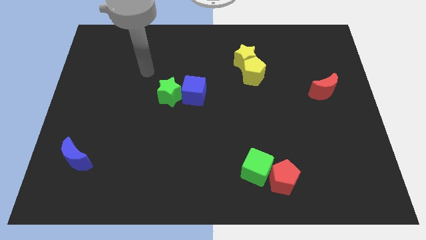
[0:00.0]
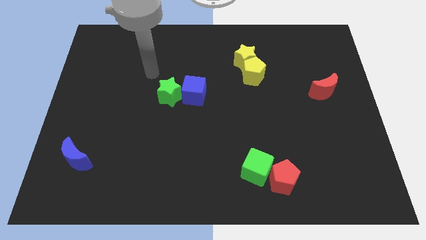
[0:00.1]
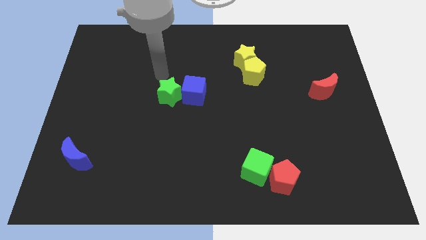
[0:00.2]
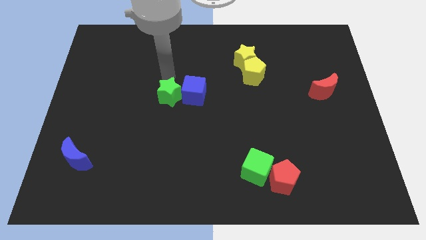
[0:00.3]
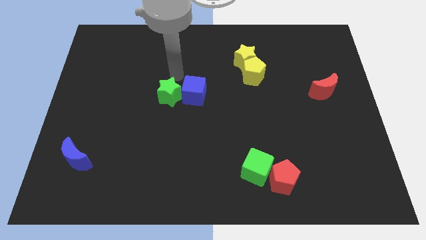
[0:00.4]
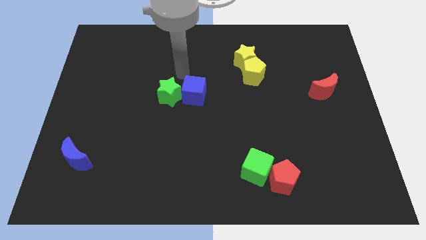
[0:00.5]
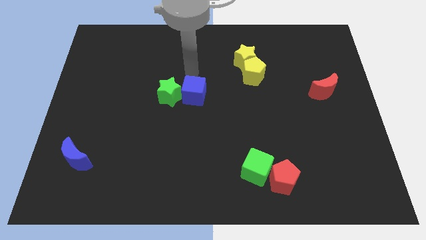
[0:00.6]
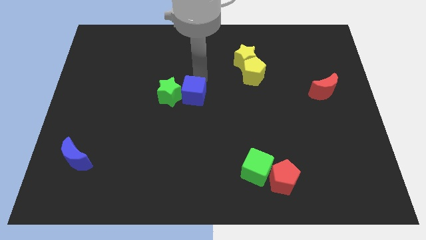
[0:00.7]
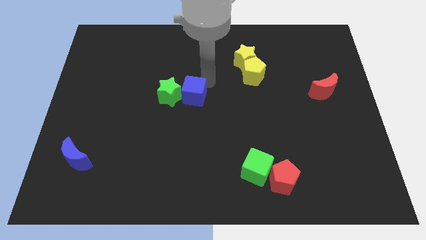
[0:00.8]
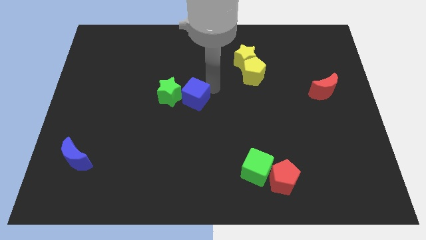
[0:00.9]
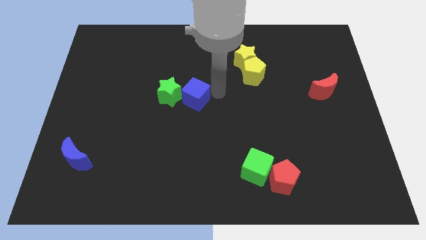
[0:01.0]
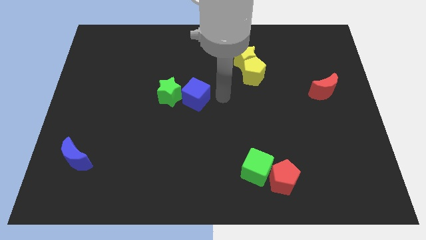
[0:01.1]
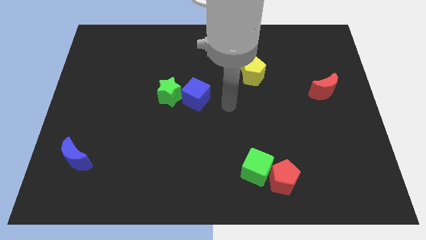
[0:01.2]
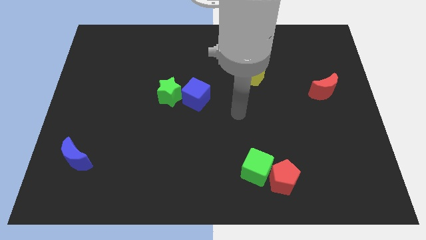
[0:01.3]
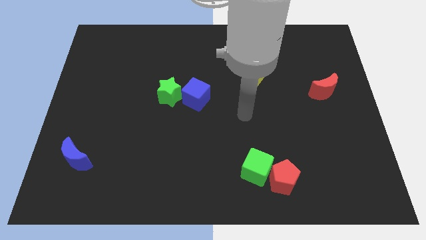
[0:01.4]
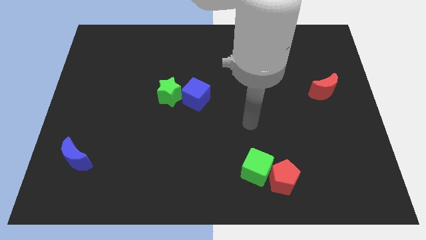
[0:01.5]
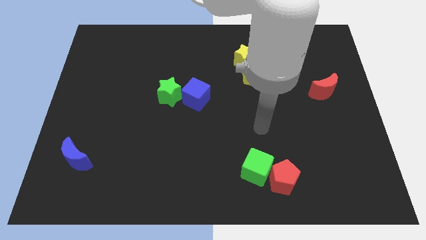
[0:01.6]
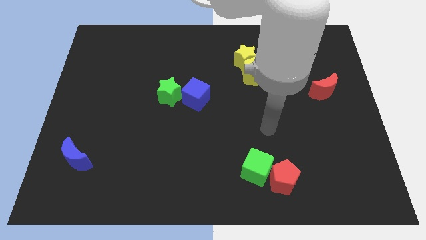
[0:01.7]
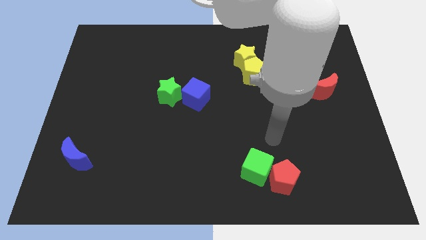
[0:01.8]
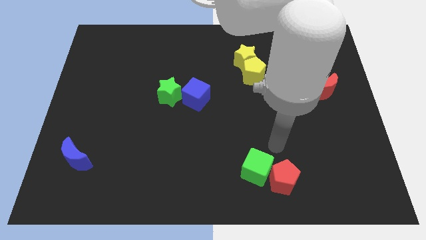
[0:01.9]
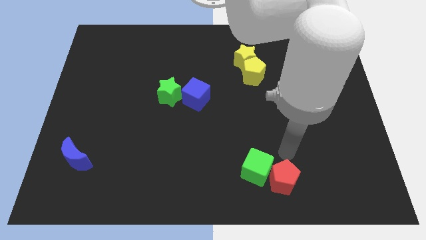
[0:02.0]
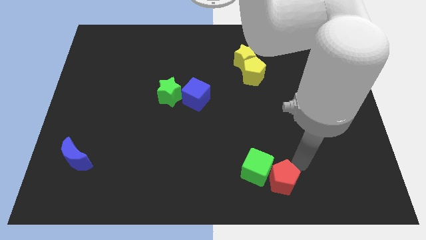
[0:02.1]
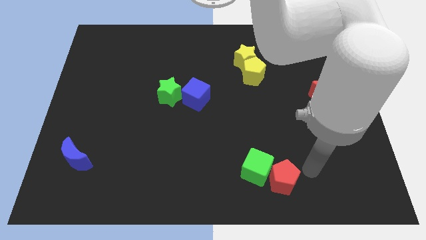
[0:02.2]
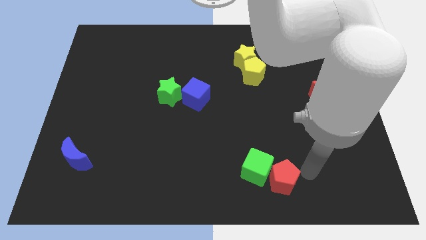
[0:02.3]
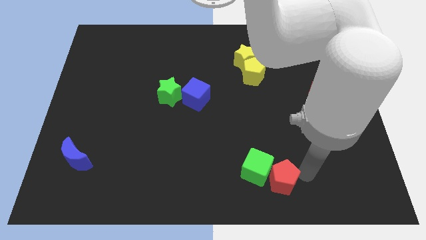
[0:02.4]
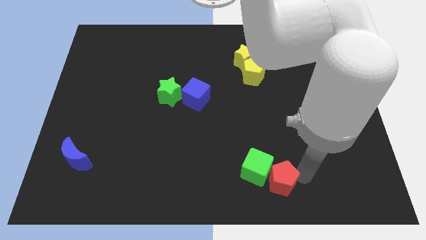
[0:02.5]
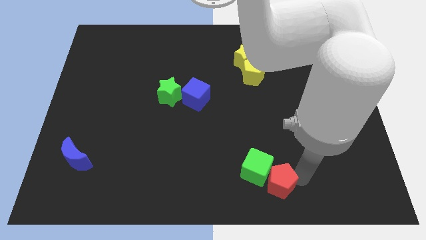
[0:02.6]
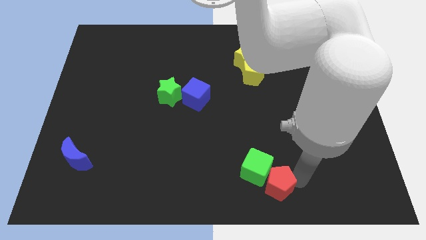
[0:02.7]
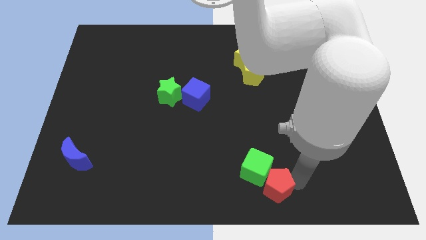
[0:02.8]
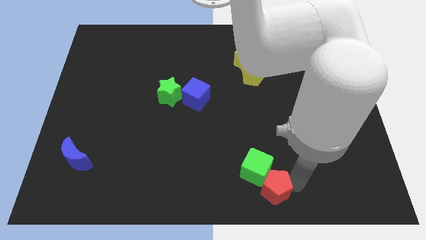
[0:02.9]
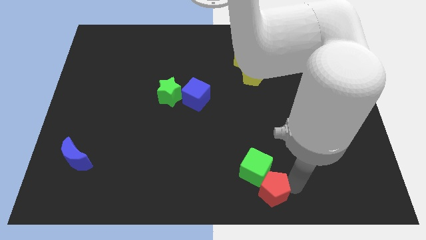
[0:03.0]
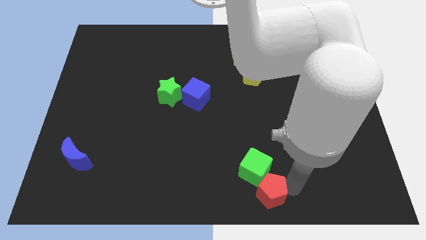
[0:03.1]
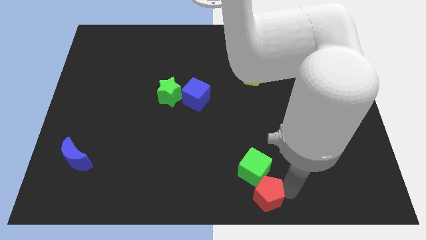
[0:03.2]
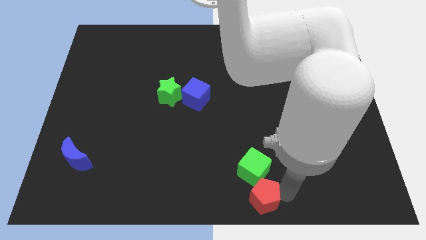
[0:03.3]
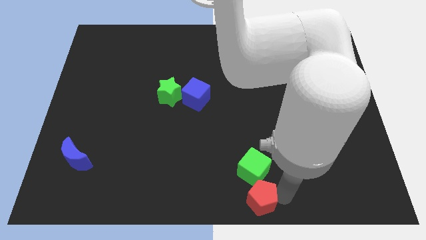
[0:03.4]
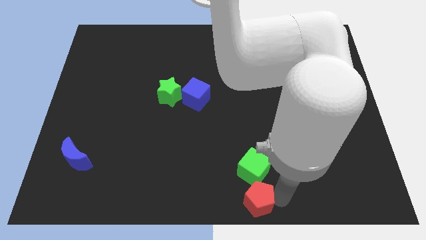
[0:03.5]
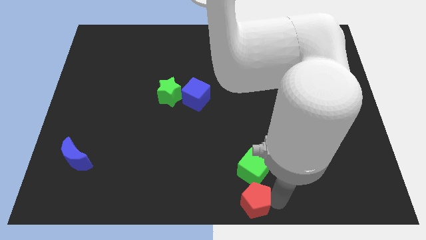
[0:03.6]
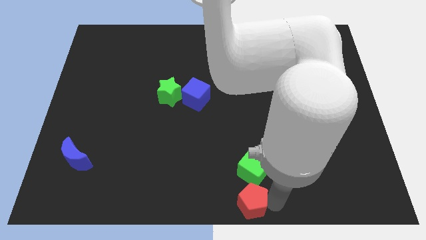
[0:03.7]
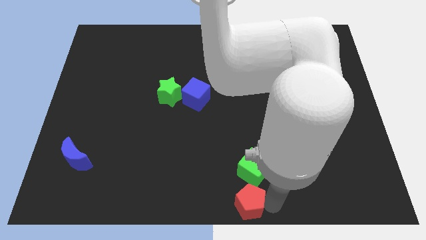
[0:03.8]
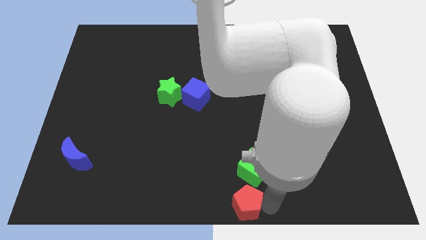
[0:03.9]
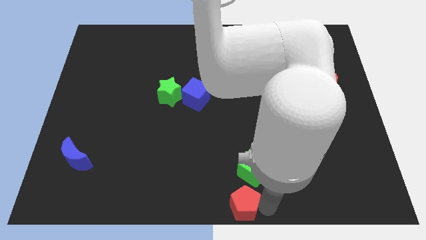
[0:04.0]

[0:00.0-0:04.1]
move the red pentagon a little bit left

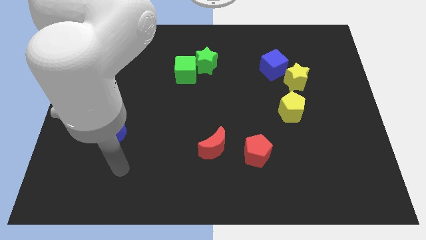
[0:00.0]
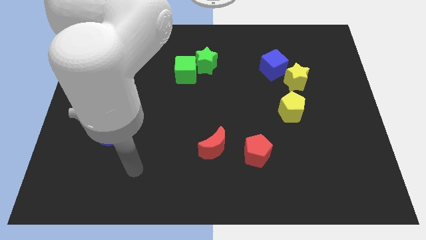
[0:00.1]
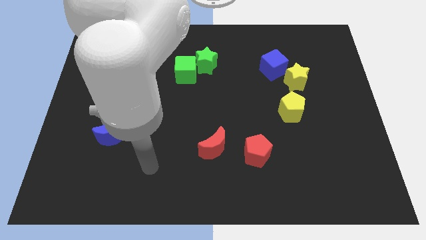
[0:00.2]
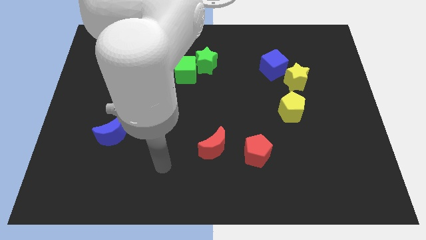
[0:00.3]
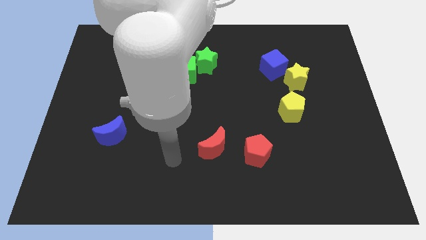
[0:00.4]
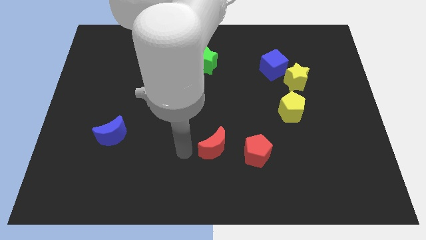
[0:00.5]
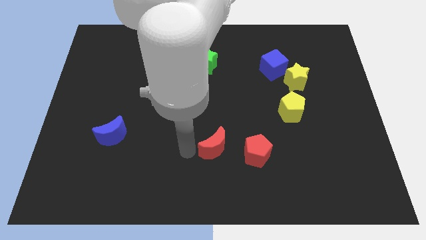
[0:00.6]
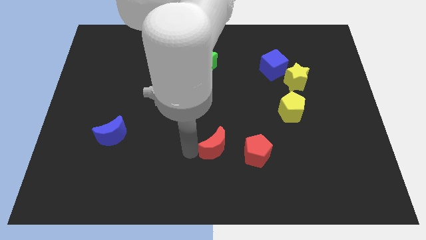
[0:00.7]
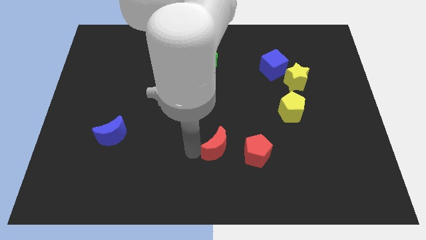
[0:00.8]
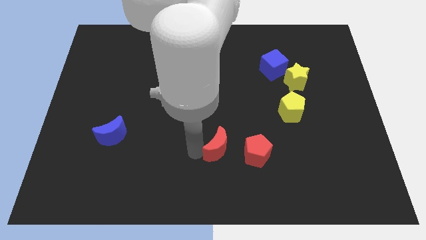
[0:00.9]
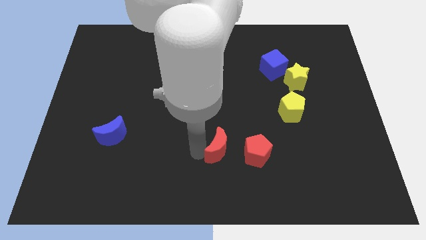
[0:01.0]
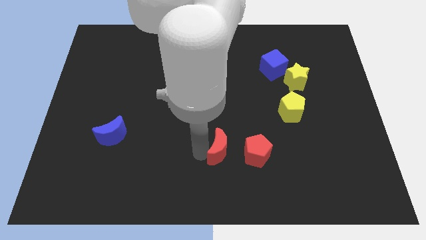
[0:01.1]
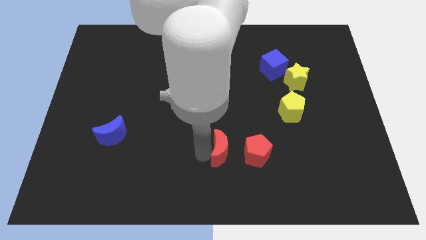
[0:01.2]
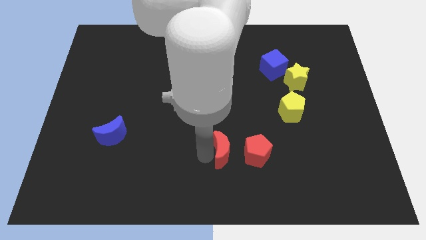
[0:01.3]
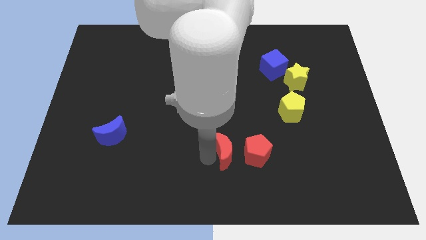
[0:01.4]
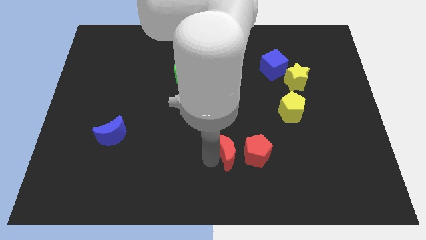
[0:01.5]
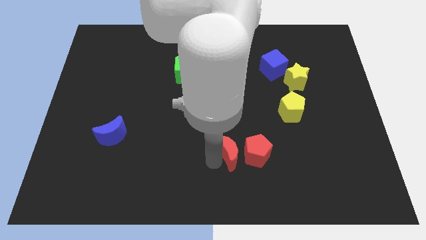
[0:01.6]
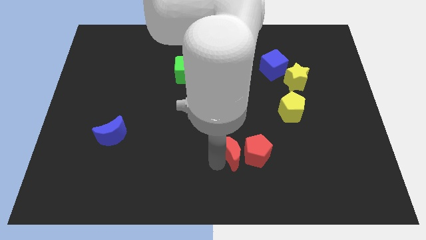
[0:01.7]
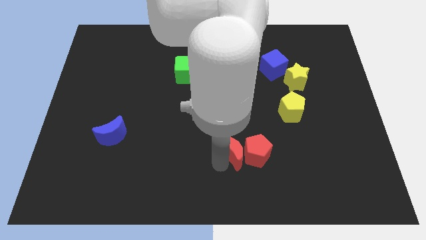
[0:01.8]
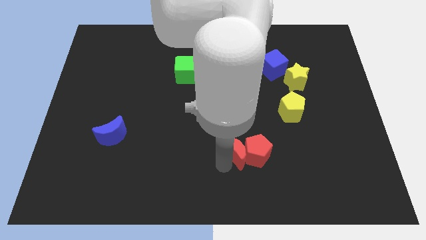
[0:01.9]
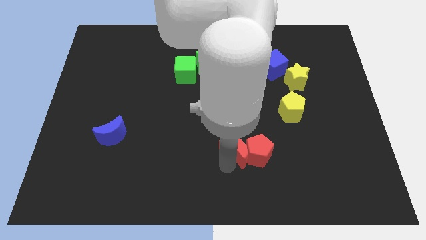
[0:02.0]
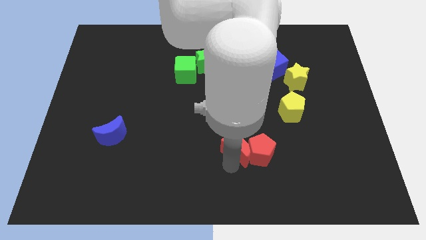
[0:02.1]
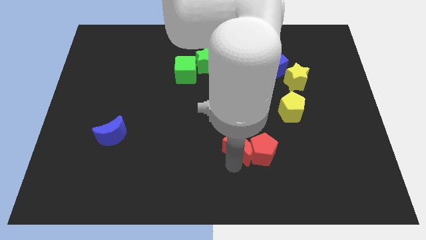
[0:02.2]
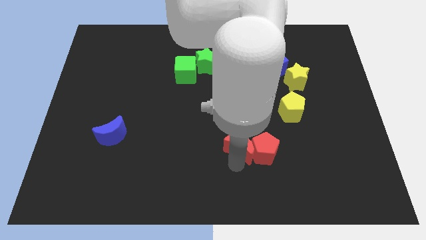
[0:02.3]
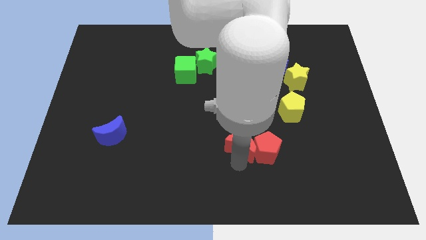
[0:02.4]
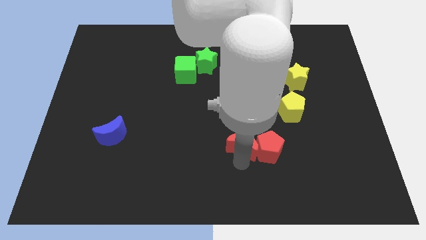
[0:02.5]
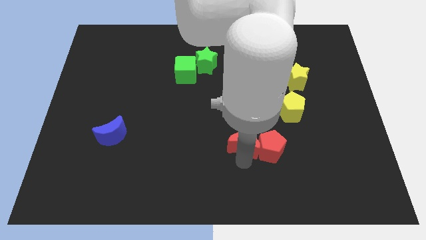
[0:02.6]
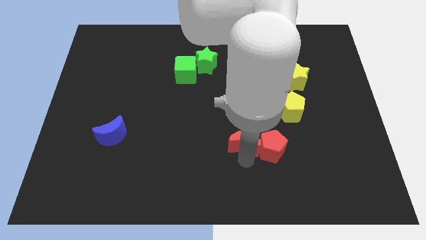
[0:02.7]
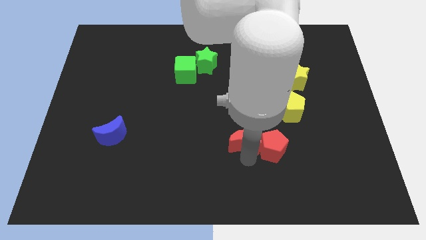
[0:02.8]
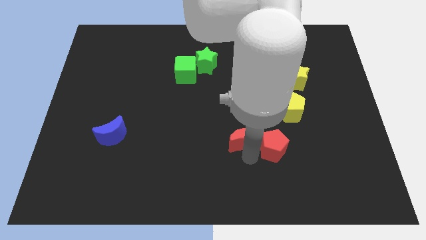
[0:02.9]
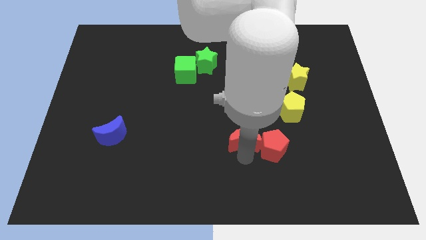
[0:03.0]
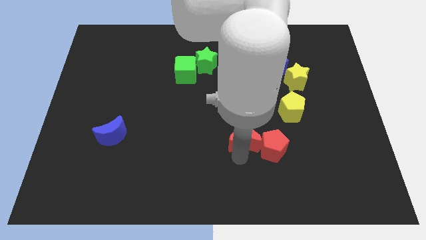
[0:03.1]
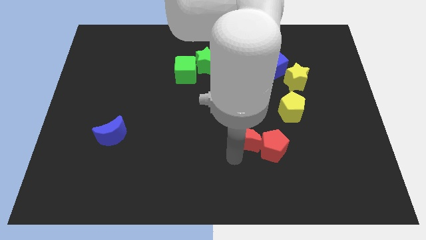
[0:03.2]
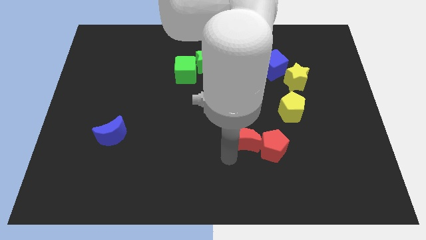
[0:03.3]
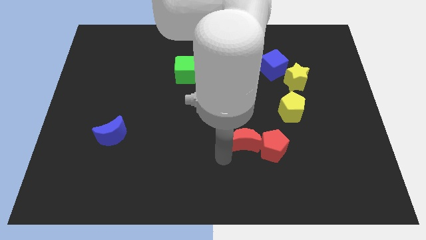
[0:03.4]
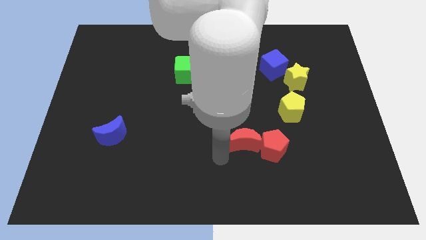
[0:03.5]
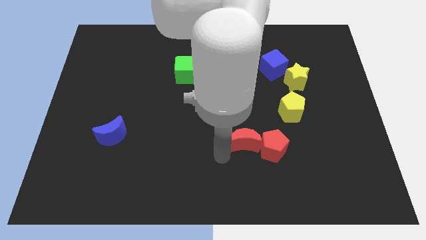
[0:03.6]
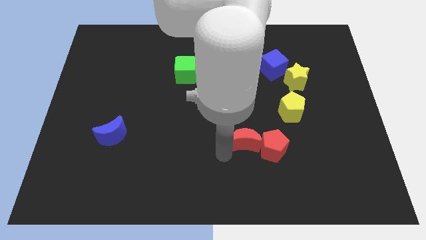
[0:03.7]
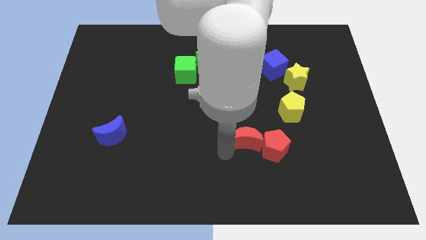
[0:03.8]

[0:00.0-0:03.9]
push the red moon to the right a little bit

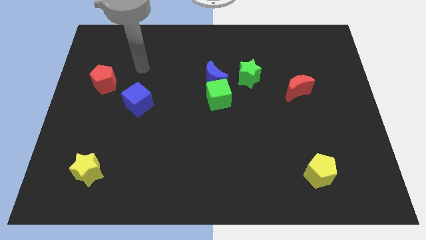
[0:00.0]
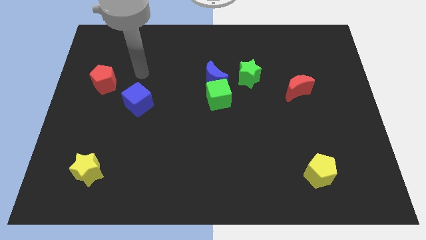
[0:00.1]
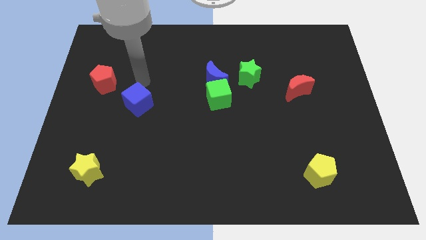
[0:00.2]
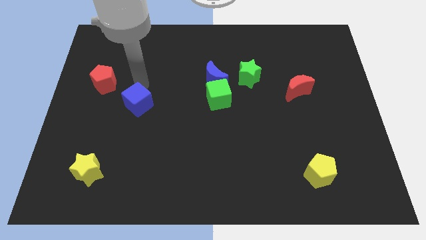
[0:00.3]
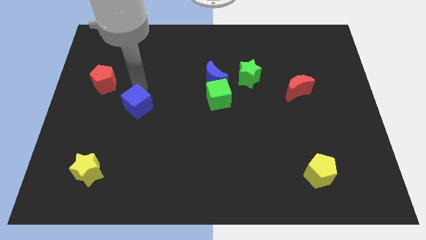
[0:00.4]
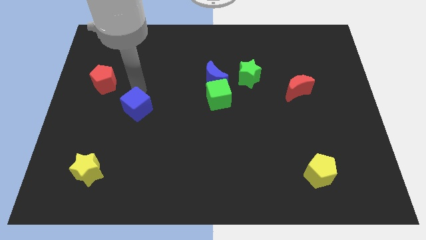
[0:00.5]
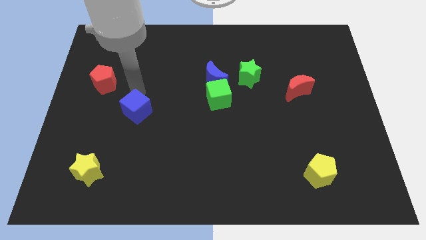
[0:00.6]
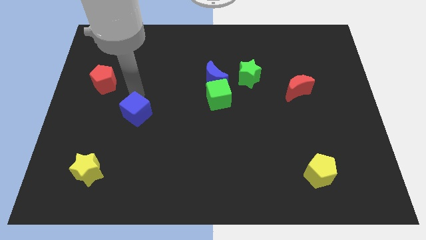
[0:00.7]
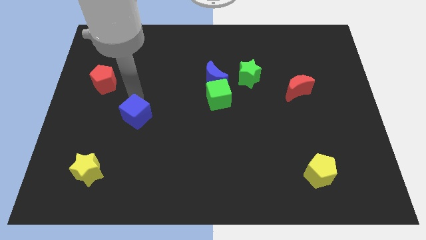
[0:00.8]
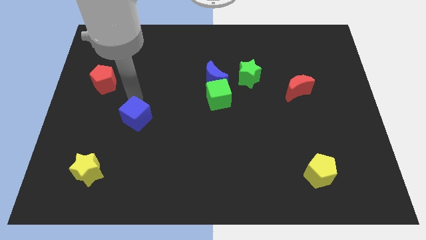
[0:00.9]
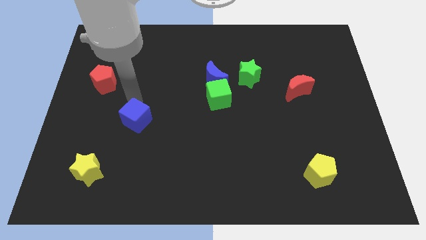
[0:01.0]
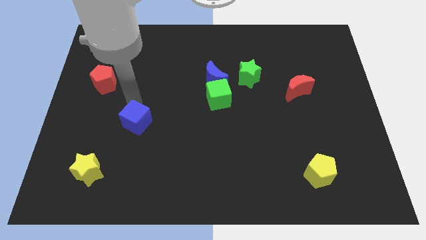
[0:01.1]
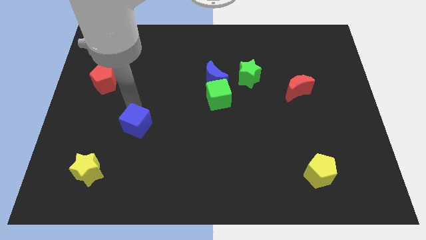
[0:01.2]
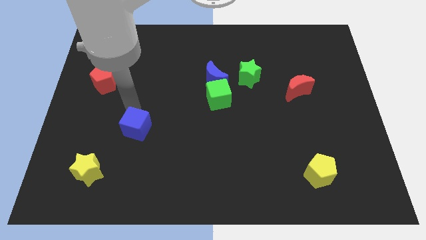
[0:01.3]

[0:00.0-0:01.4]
push the blue cube somewhat down
